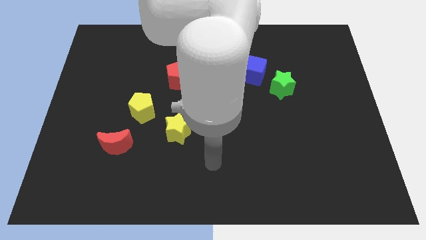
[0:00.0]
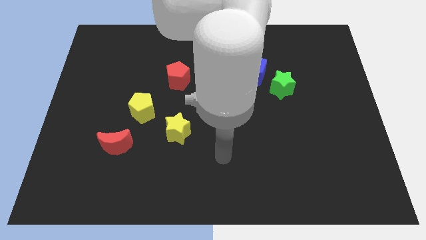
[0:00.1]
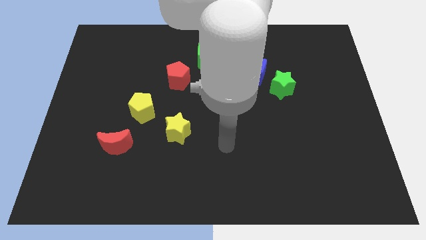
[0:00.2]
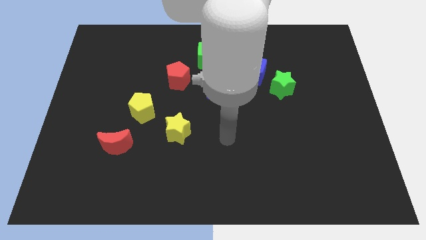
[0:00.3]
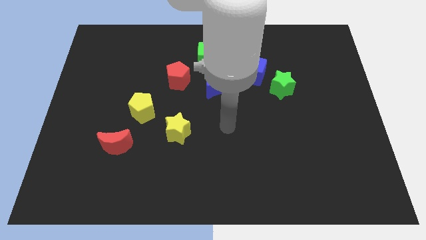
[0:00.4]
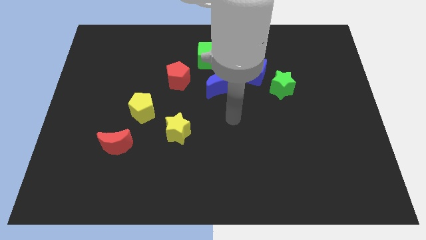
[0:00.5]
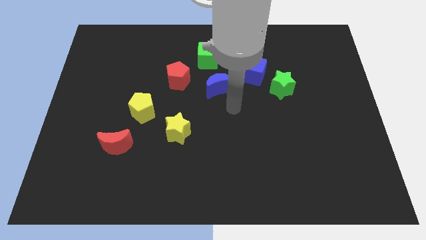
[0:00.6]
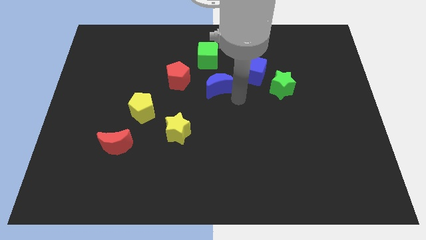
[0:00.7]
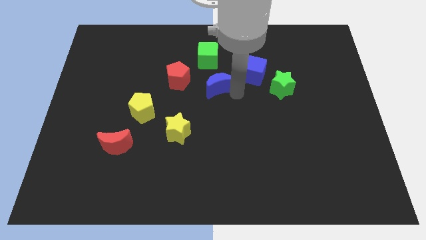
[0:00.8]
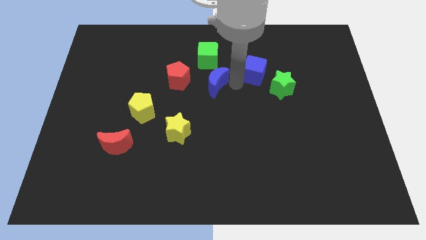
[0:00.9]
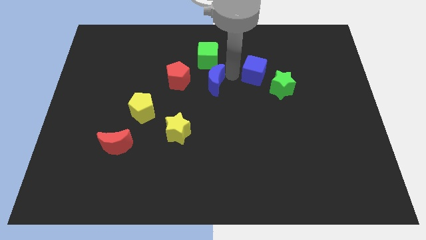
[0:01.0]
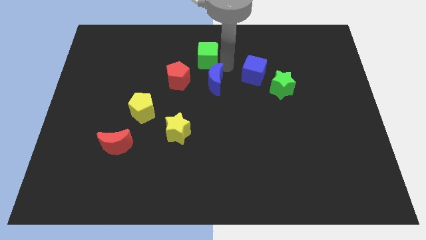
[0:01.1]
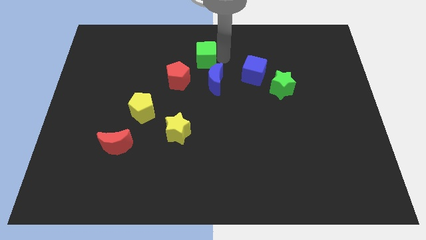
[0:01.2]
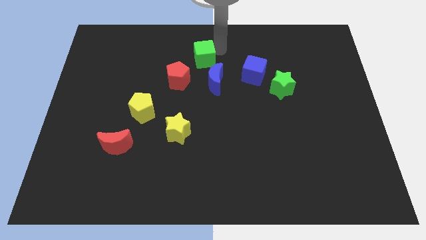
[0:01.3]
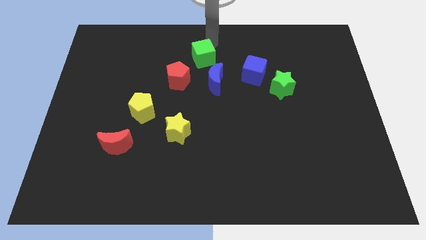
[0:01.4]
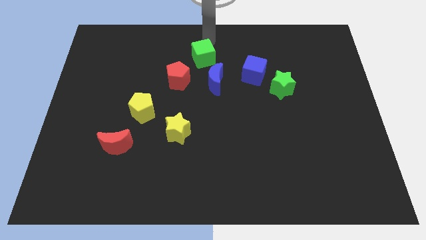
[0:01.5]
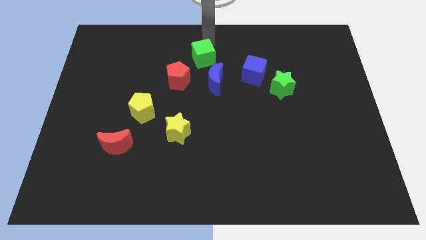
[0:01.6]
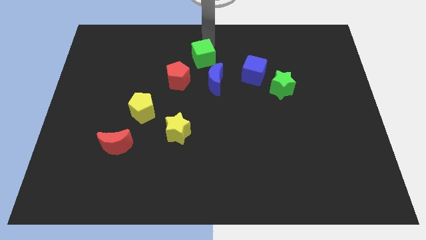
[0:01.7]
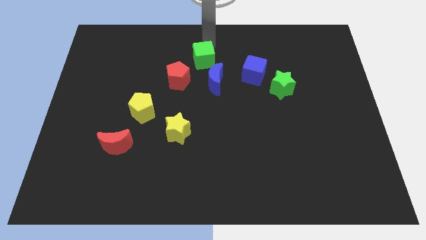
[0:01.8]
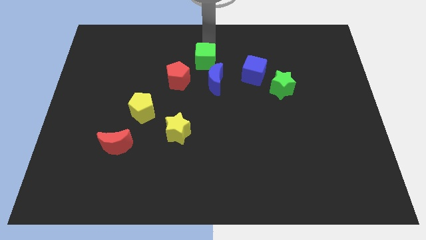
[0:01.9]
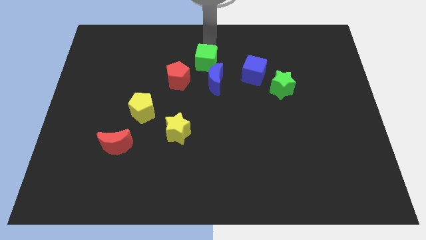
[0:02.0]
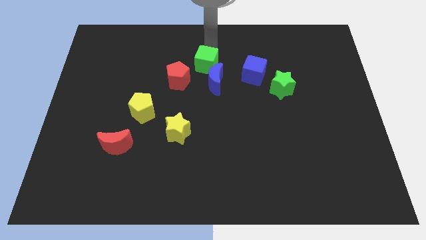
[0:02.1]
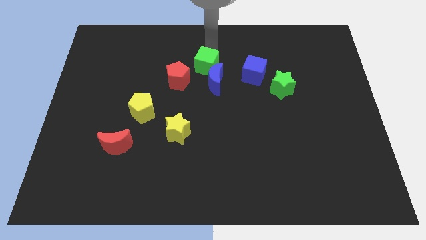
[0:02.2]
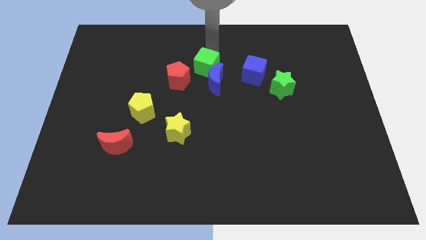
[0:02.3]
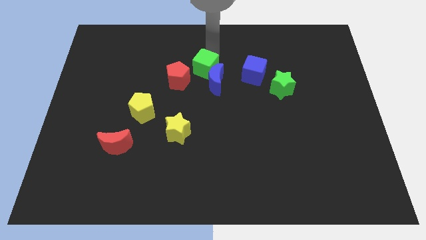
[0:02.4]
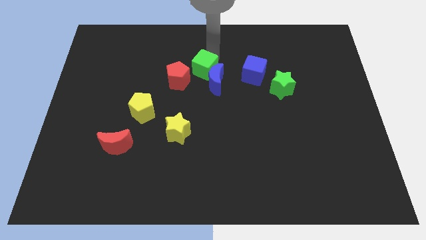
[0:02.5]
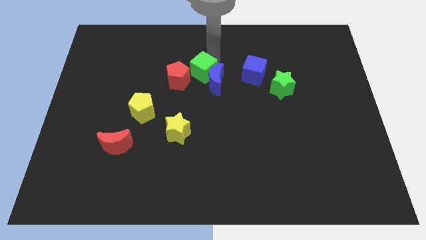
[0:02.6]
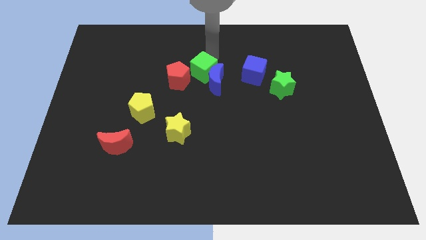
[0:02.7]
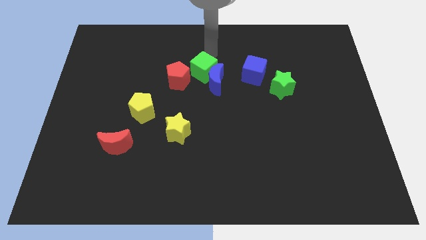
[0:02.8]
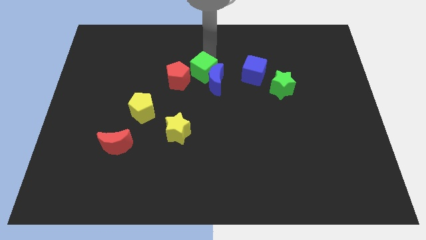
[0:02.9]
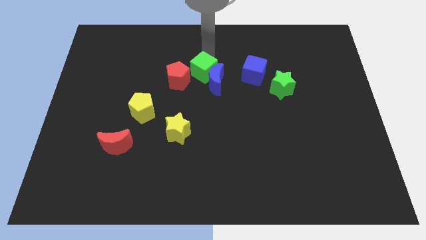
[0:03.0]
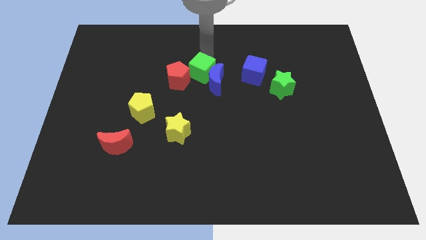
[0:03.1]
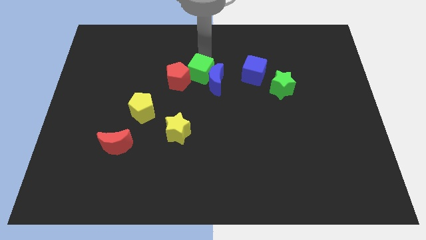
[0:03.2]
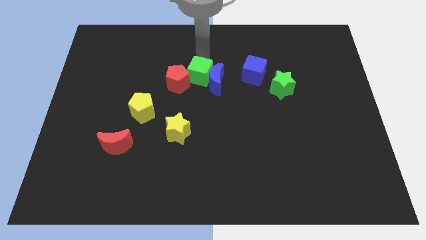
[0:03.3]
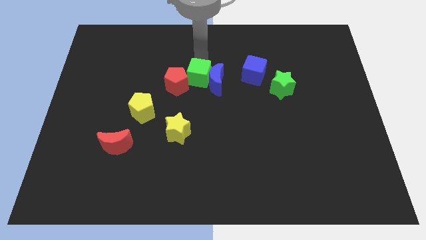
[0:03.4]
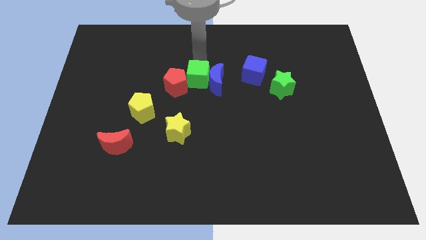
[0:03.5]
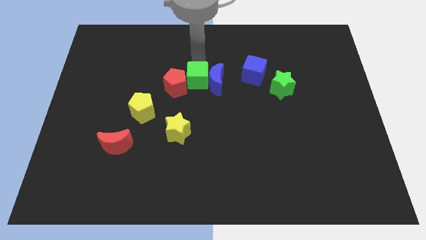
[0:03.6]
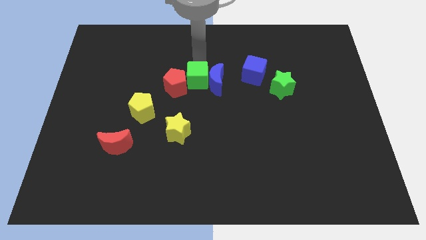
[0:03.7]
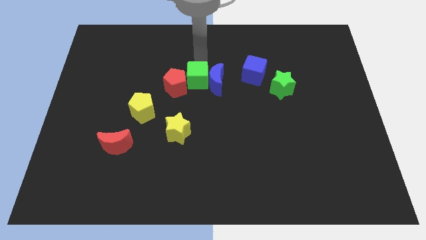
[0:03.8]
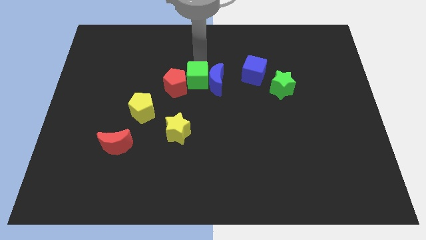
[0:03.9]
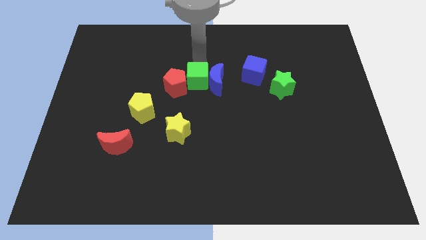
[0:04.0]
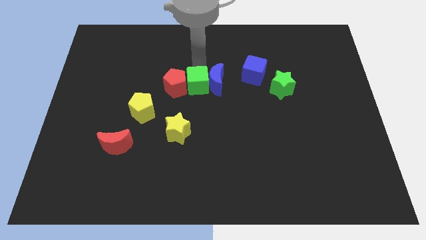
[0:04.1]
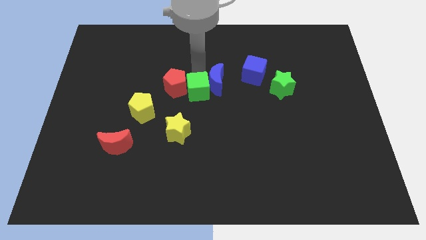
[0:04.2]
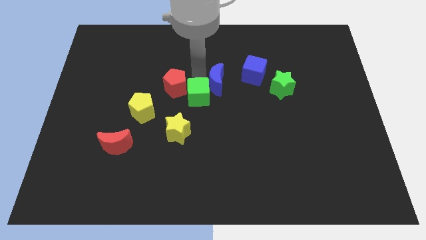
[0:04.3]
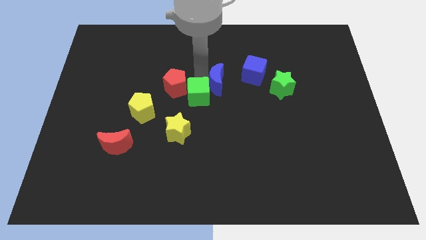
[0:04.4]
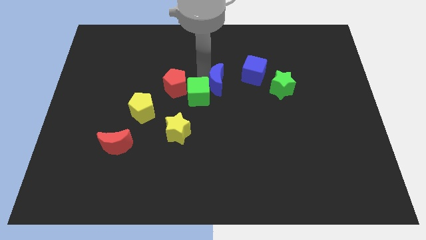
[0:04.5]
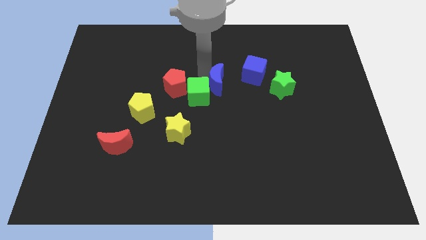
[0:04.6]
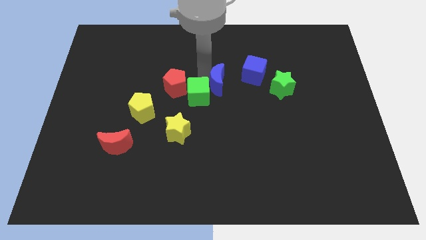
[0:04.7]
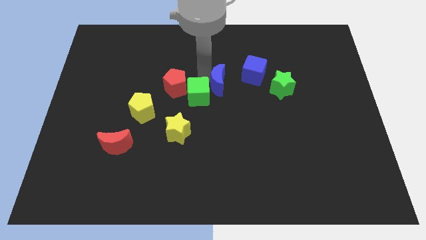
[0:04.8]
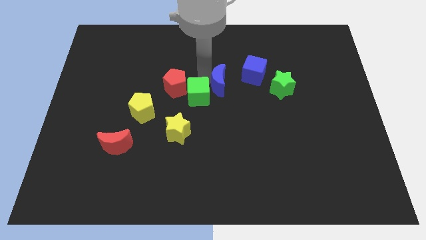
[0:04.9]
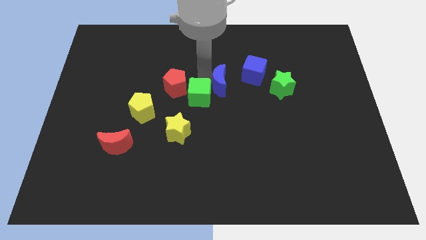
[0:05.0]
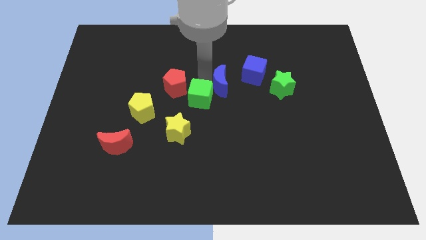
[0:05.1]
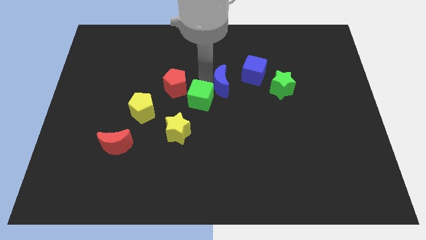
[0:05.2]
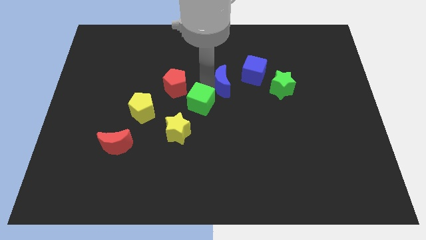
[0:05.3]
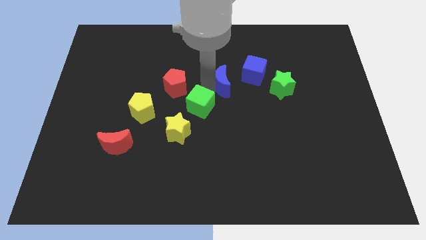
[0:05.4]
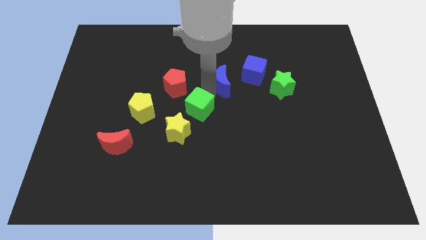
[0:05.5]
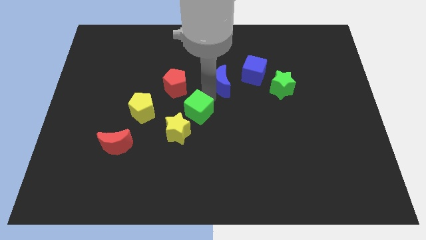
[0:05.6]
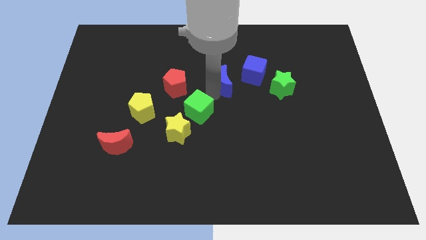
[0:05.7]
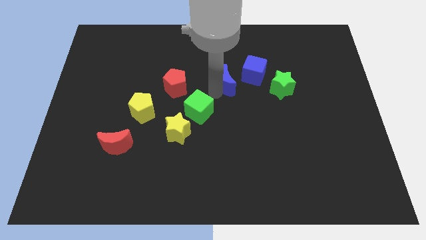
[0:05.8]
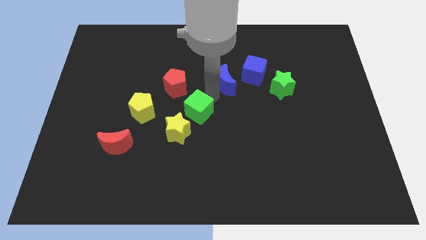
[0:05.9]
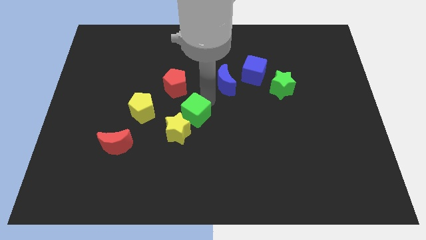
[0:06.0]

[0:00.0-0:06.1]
move the green cube next to the yellow star

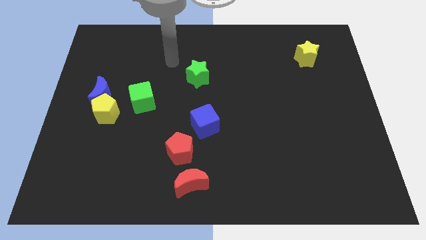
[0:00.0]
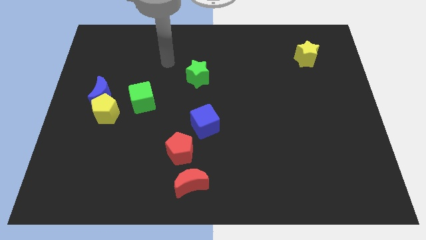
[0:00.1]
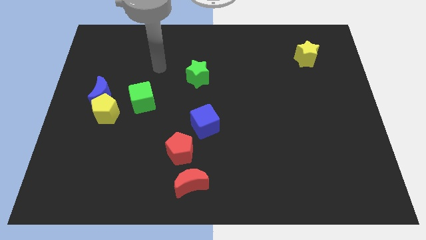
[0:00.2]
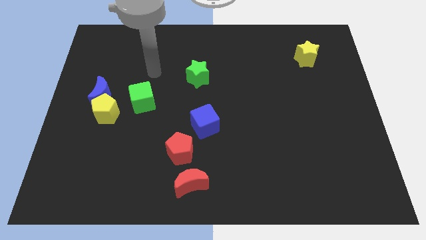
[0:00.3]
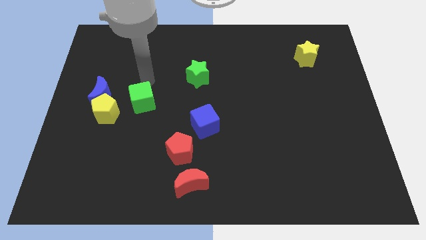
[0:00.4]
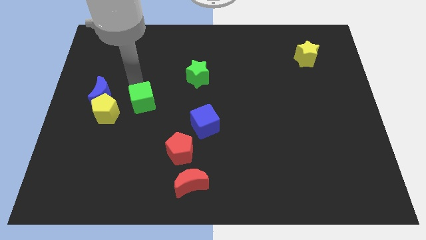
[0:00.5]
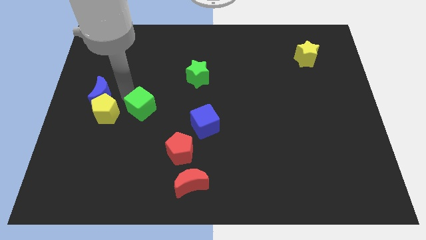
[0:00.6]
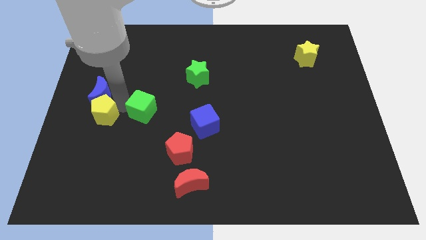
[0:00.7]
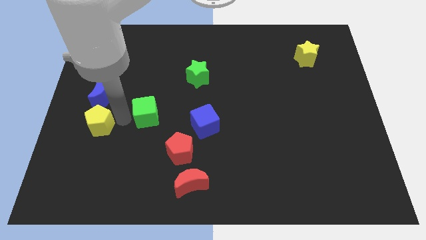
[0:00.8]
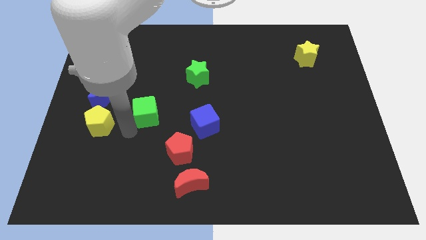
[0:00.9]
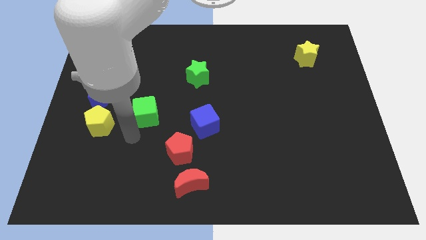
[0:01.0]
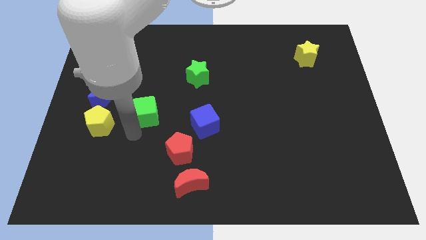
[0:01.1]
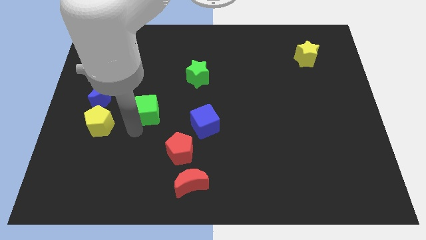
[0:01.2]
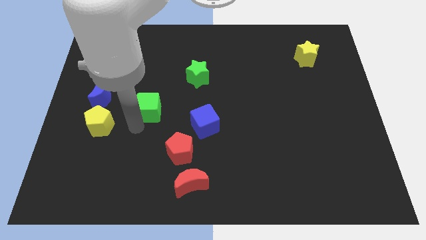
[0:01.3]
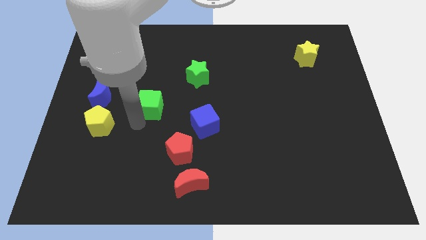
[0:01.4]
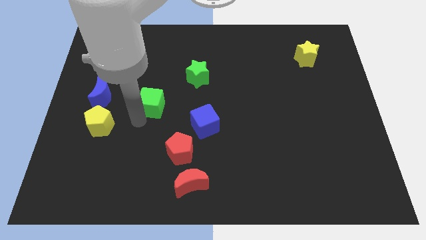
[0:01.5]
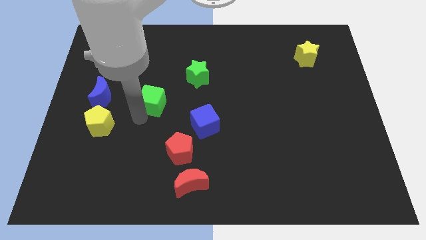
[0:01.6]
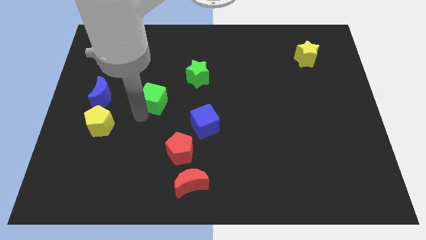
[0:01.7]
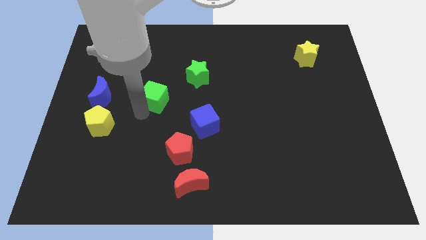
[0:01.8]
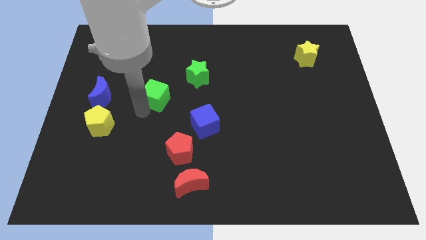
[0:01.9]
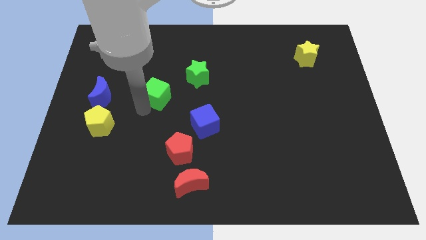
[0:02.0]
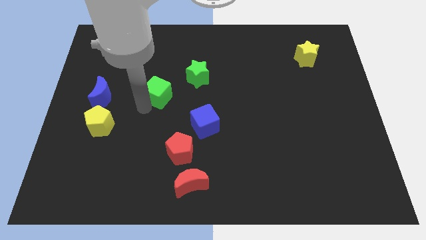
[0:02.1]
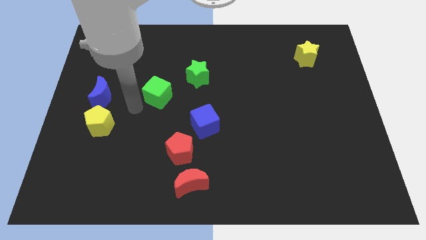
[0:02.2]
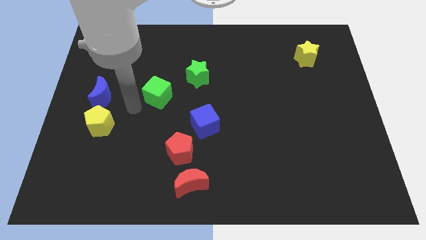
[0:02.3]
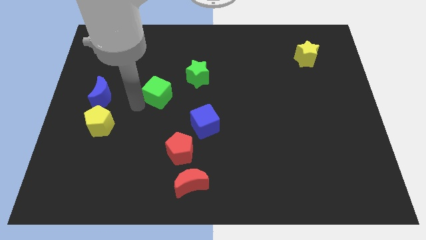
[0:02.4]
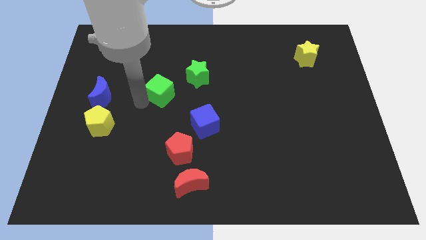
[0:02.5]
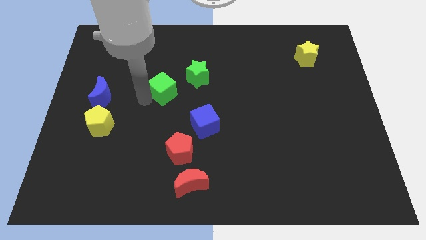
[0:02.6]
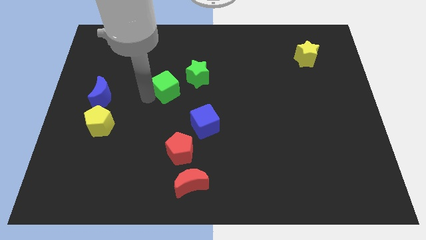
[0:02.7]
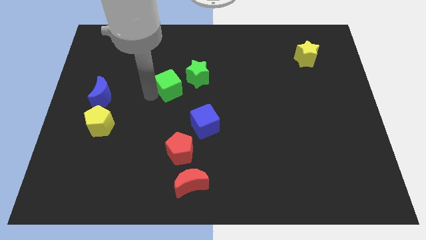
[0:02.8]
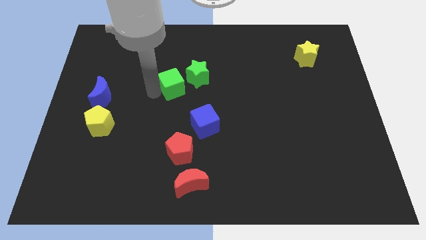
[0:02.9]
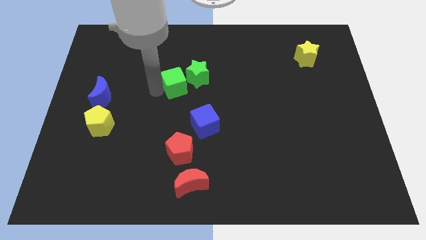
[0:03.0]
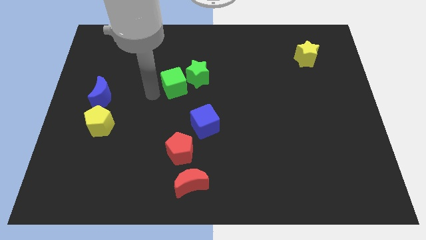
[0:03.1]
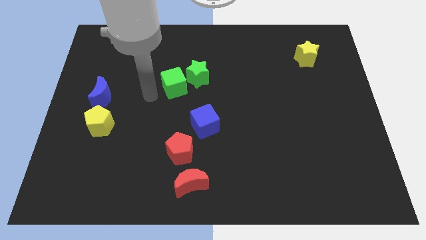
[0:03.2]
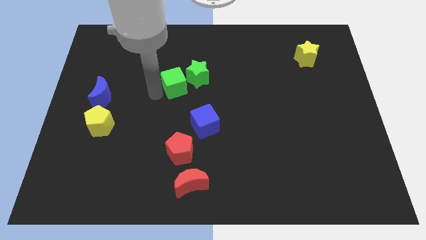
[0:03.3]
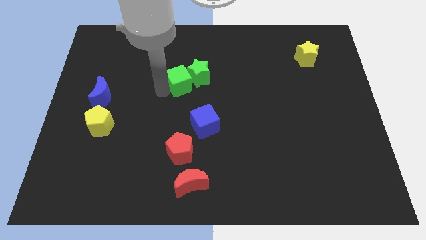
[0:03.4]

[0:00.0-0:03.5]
push the green cube close to the green star
